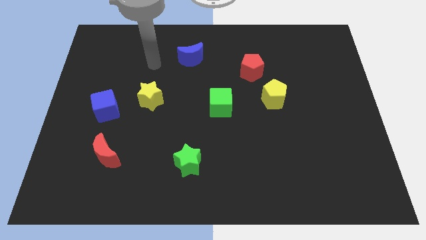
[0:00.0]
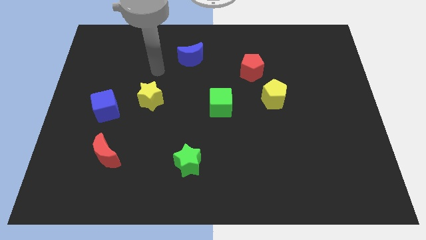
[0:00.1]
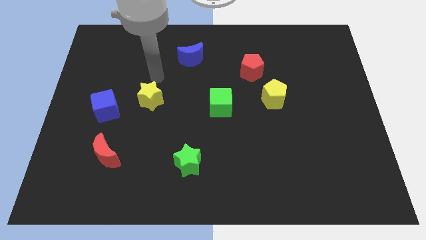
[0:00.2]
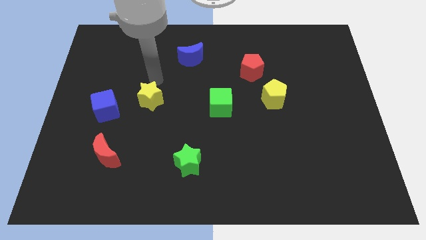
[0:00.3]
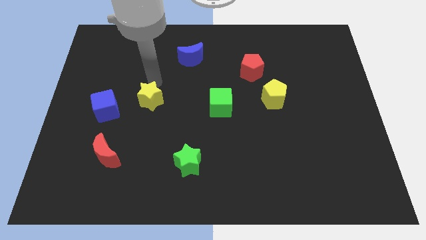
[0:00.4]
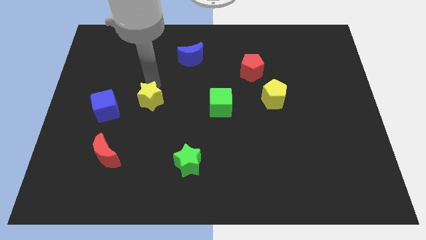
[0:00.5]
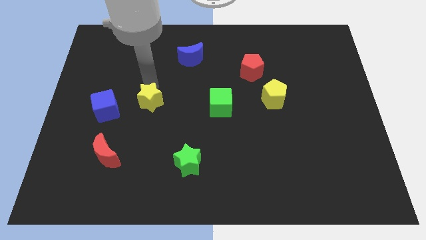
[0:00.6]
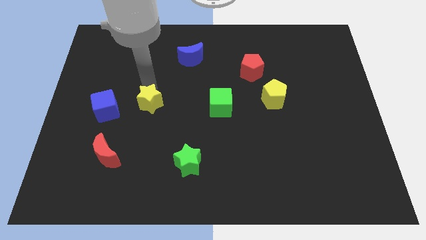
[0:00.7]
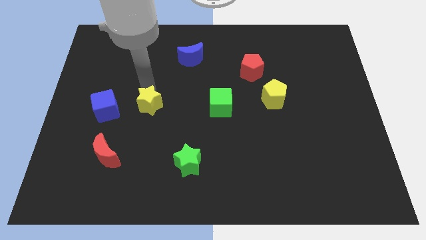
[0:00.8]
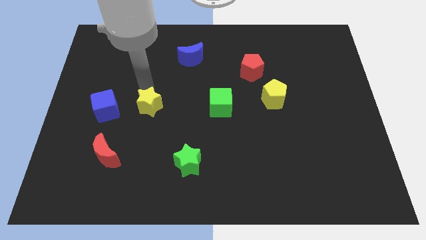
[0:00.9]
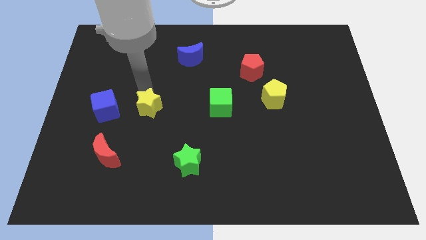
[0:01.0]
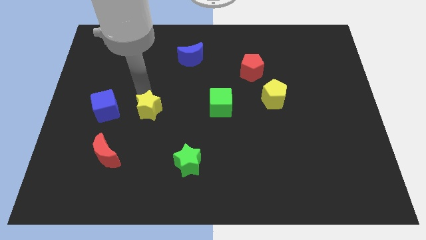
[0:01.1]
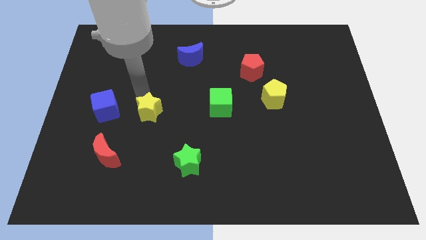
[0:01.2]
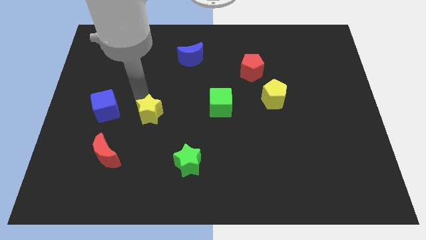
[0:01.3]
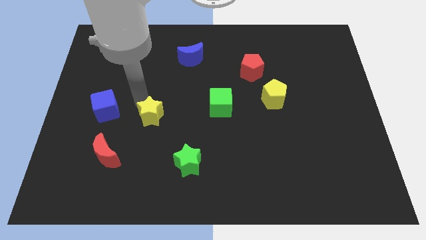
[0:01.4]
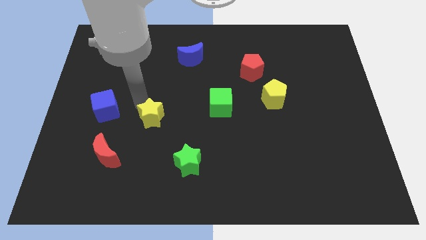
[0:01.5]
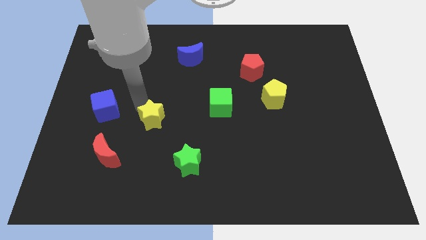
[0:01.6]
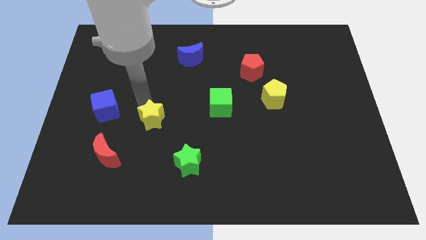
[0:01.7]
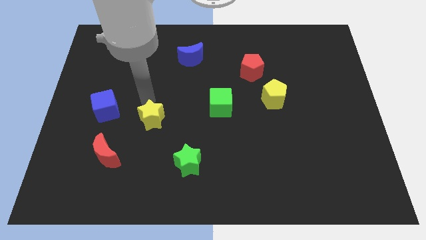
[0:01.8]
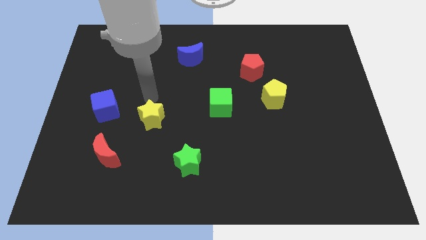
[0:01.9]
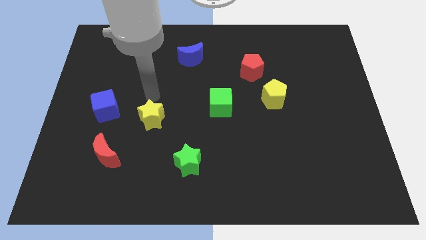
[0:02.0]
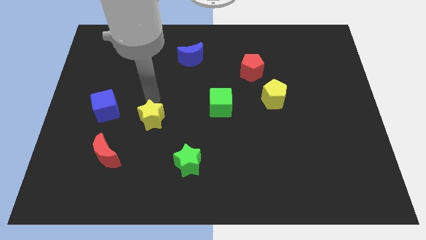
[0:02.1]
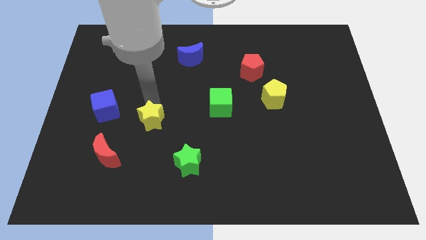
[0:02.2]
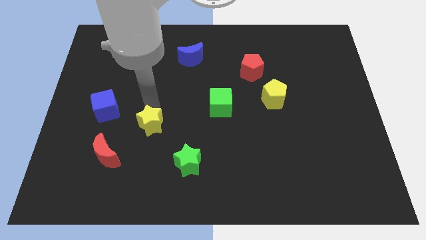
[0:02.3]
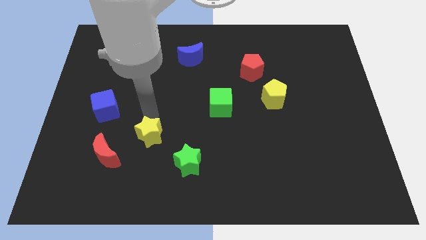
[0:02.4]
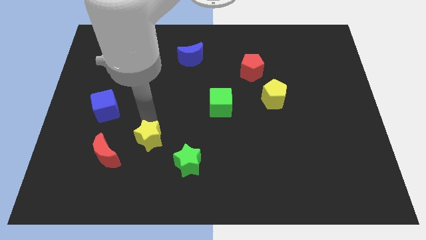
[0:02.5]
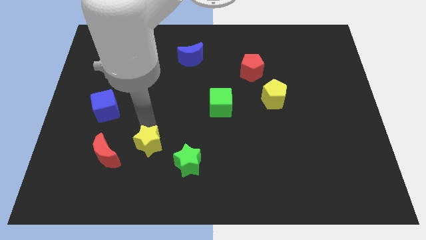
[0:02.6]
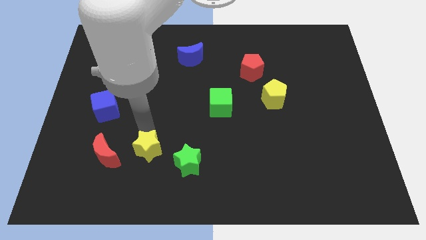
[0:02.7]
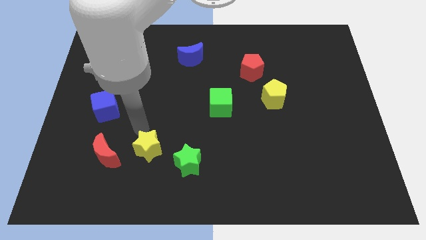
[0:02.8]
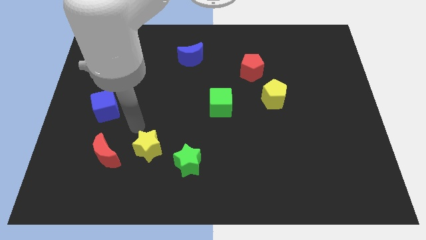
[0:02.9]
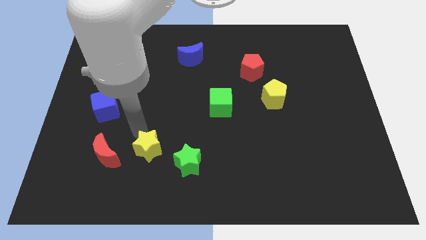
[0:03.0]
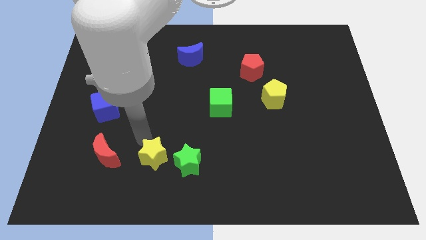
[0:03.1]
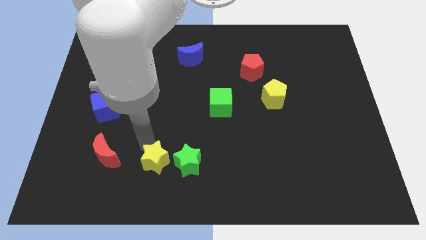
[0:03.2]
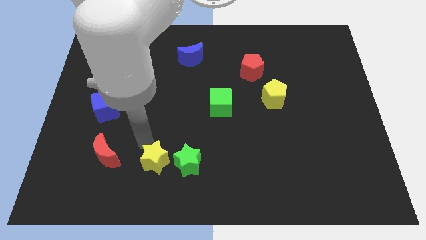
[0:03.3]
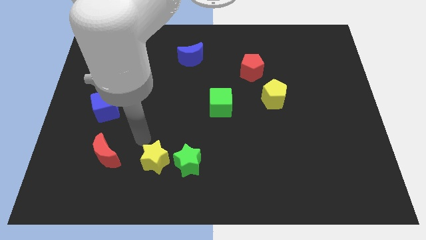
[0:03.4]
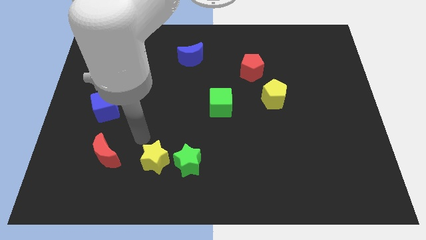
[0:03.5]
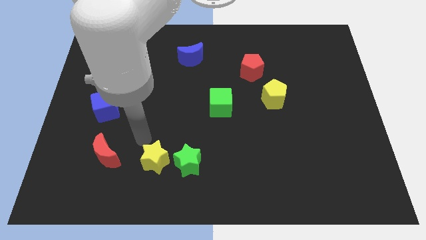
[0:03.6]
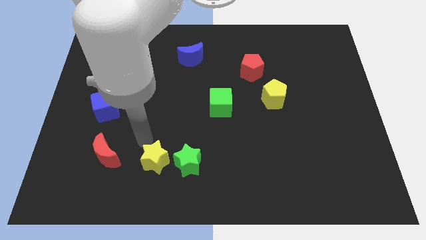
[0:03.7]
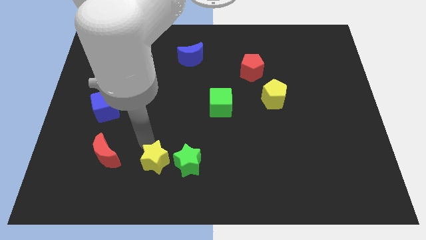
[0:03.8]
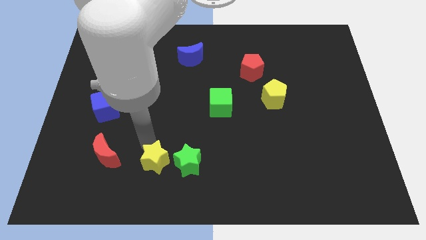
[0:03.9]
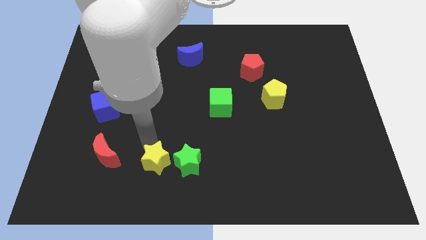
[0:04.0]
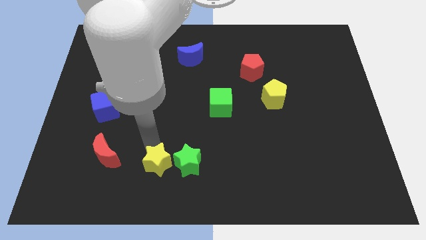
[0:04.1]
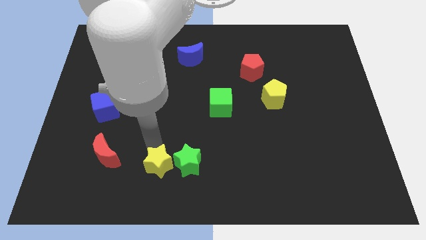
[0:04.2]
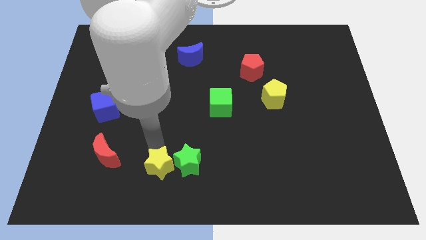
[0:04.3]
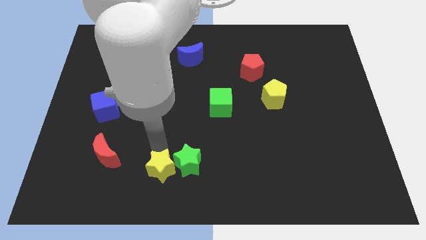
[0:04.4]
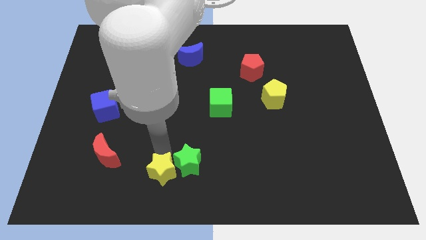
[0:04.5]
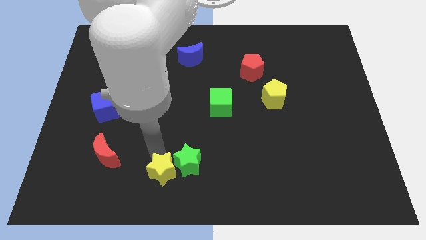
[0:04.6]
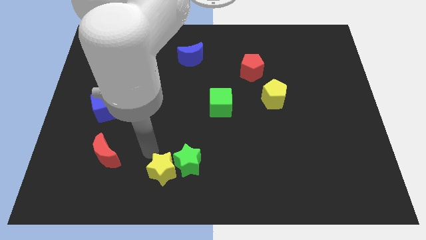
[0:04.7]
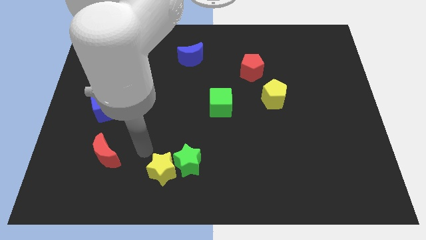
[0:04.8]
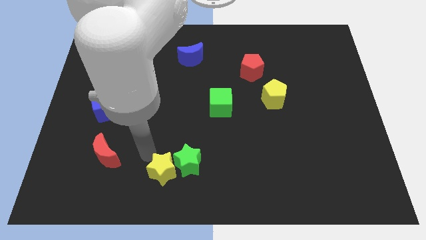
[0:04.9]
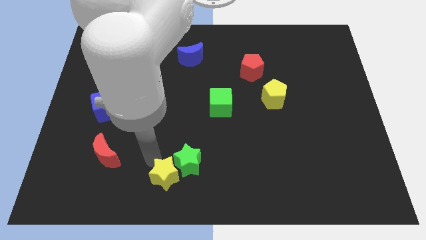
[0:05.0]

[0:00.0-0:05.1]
move the yellow star to the bottom side

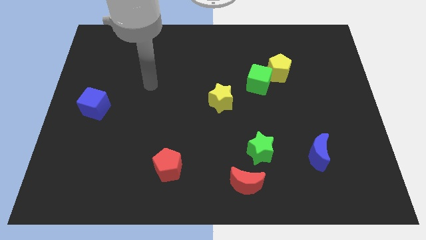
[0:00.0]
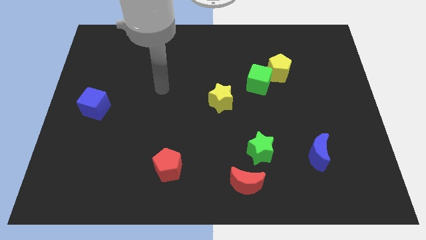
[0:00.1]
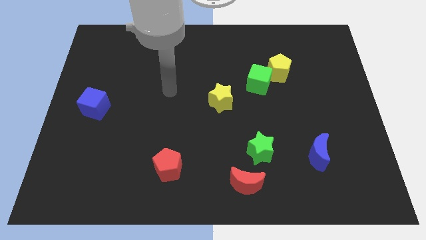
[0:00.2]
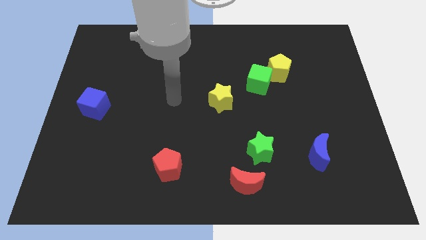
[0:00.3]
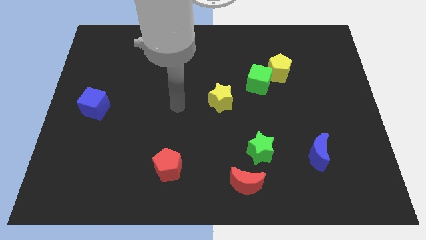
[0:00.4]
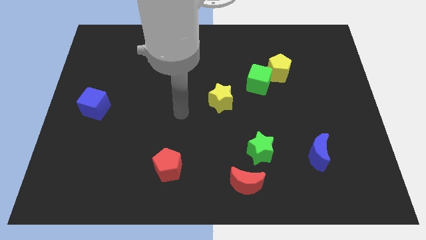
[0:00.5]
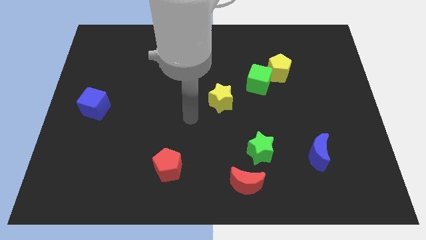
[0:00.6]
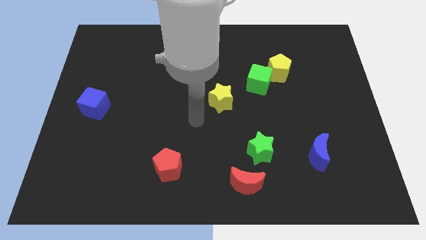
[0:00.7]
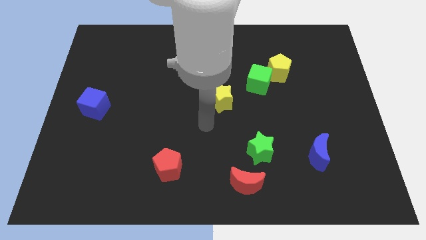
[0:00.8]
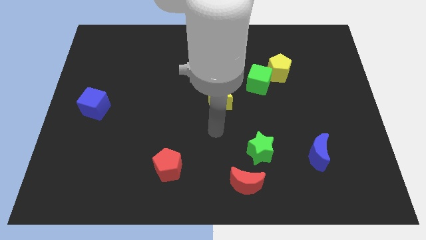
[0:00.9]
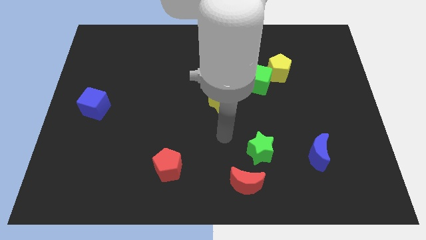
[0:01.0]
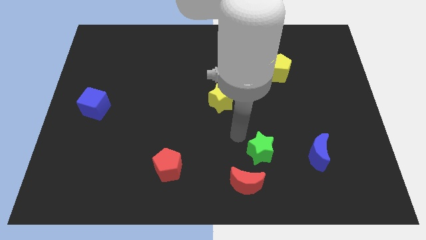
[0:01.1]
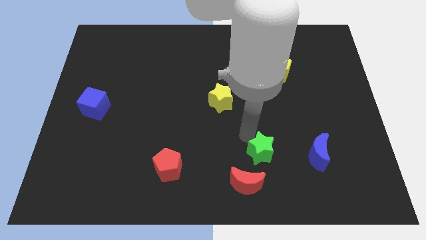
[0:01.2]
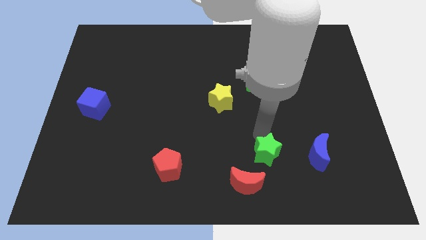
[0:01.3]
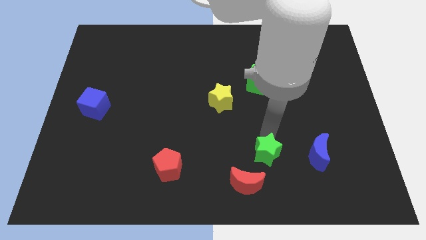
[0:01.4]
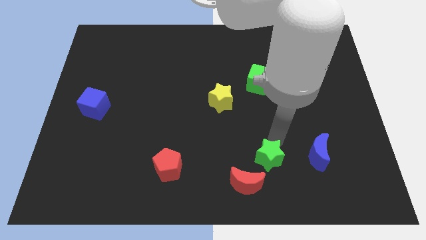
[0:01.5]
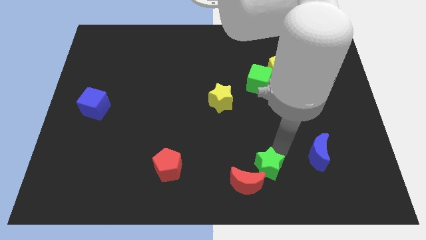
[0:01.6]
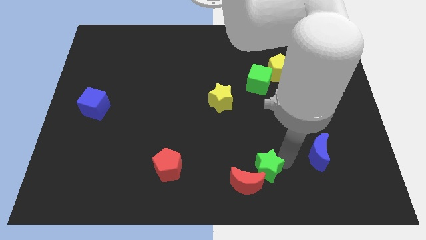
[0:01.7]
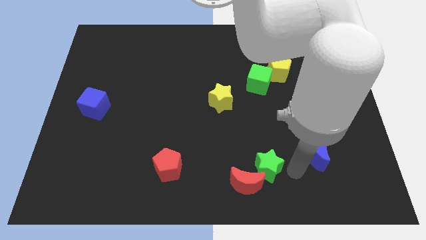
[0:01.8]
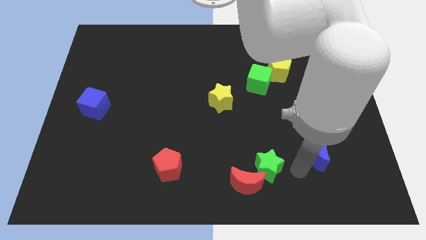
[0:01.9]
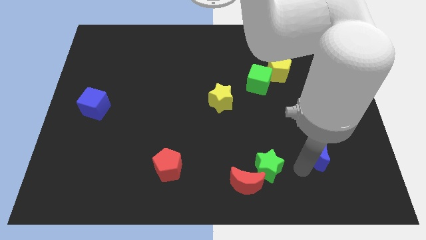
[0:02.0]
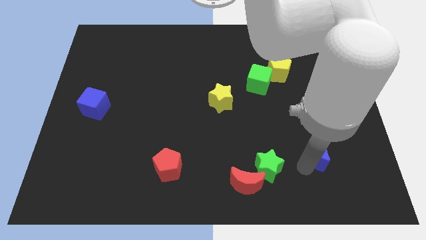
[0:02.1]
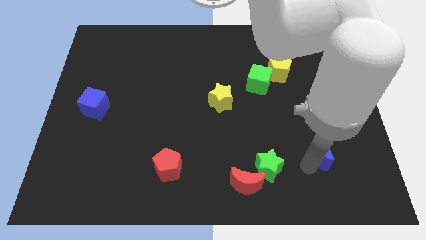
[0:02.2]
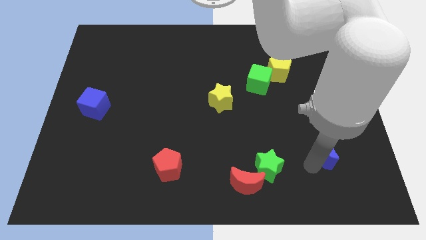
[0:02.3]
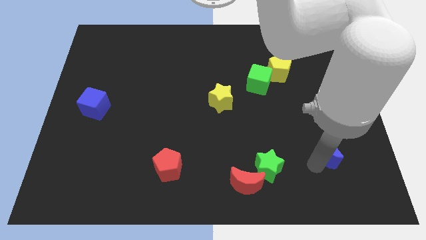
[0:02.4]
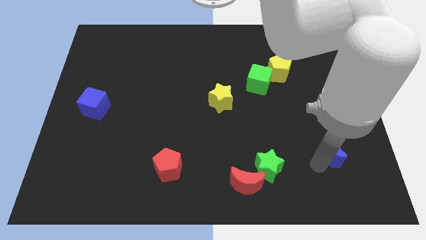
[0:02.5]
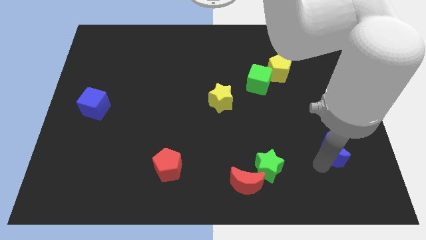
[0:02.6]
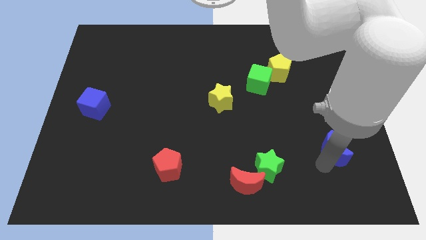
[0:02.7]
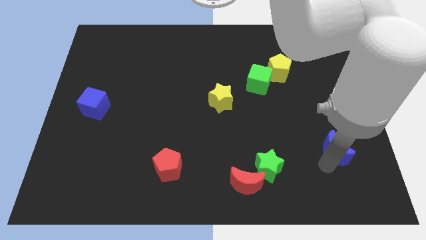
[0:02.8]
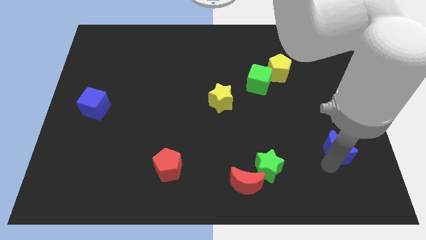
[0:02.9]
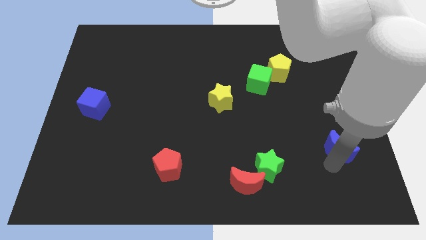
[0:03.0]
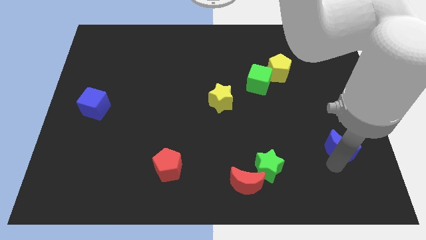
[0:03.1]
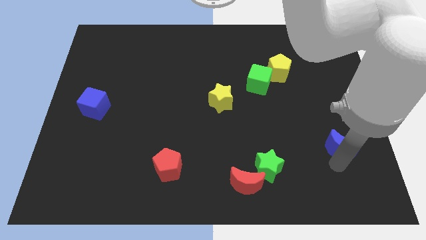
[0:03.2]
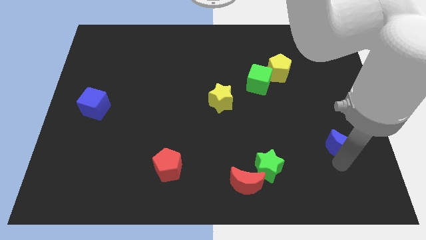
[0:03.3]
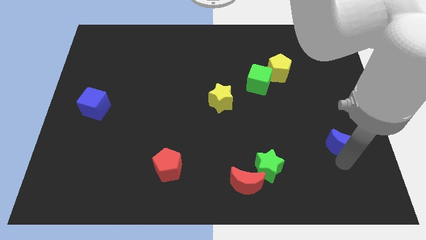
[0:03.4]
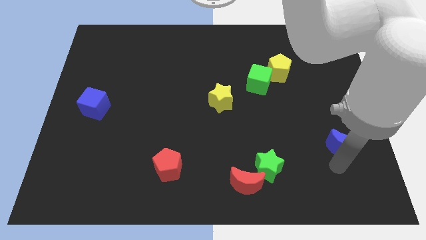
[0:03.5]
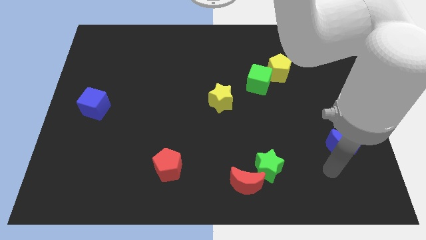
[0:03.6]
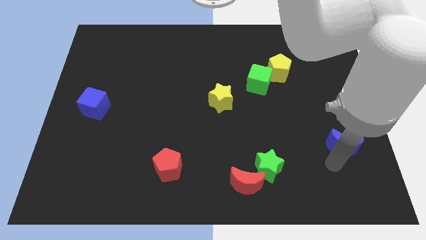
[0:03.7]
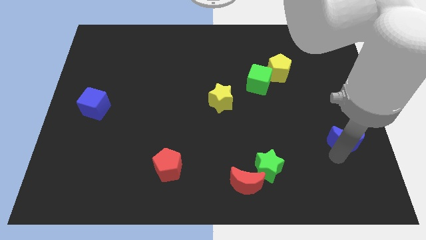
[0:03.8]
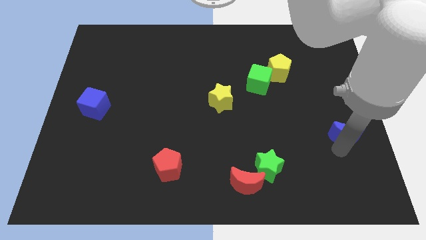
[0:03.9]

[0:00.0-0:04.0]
push the blue moon to the center right
